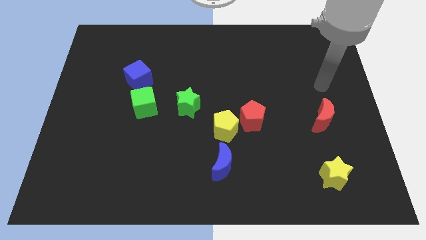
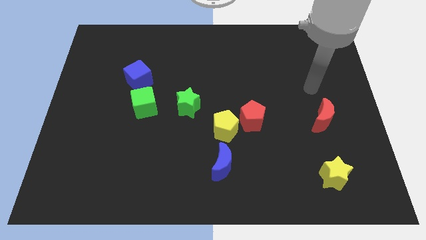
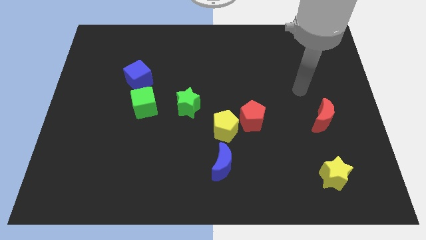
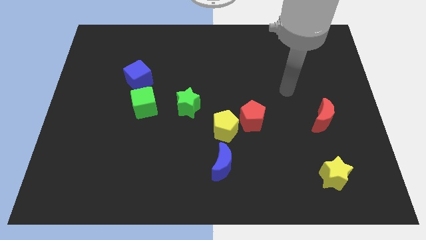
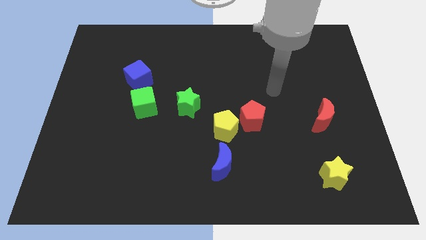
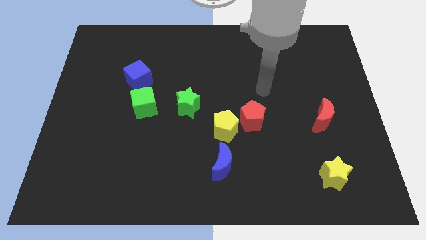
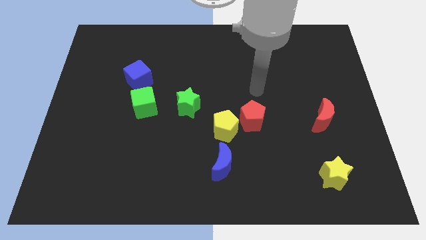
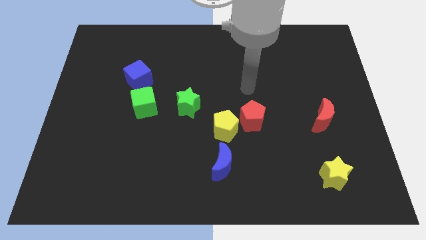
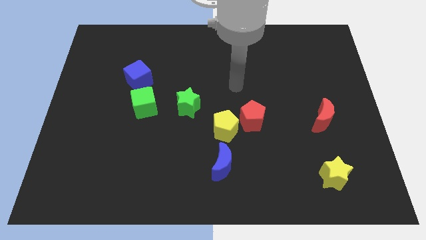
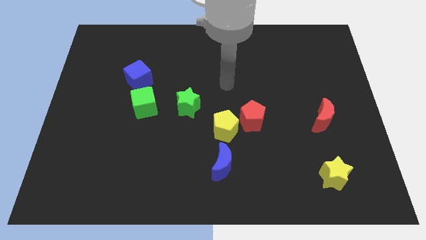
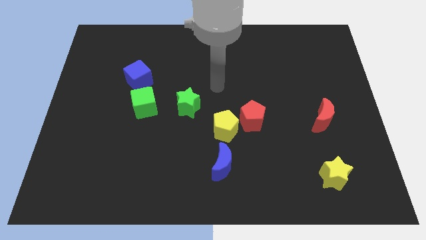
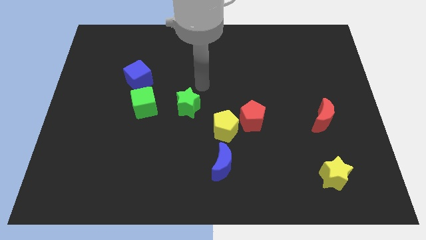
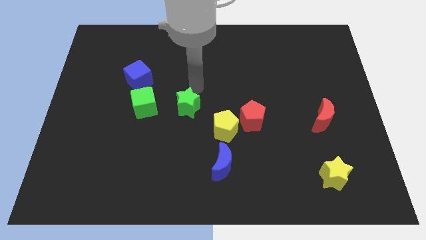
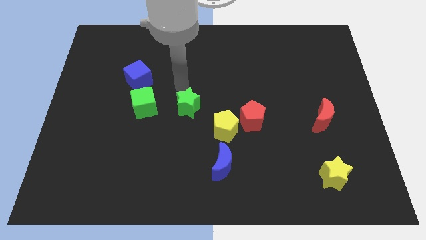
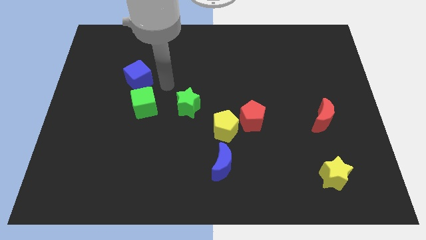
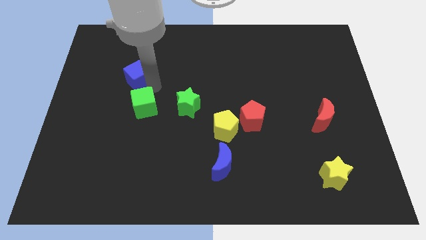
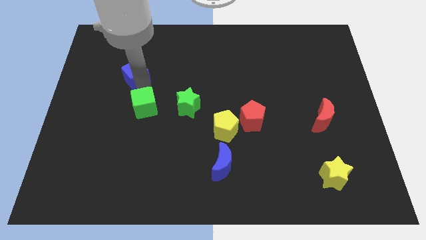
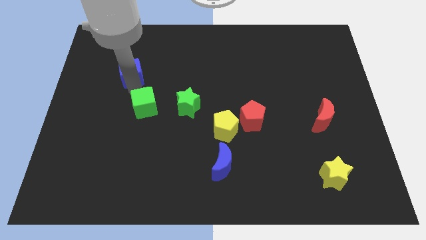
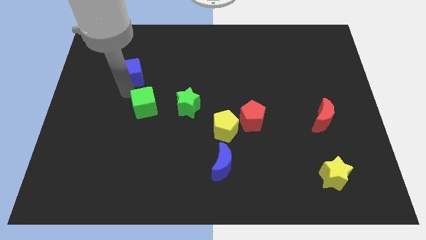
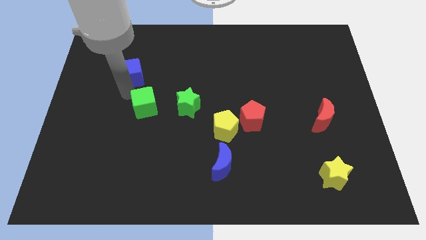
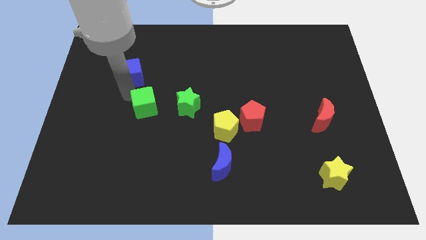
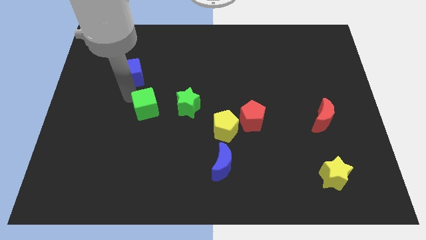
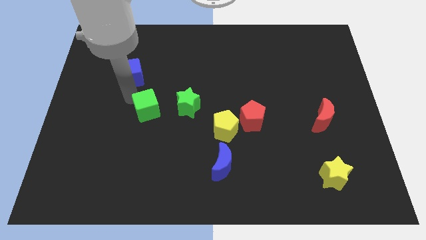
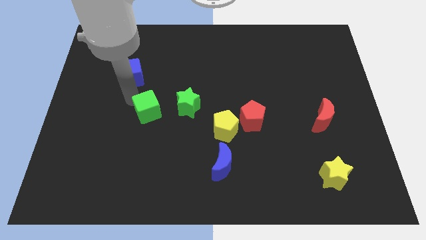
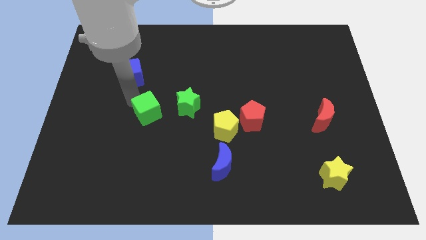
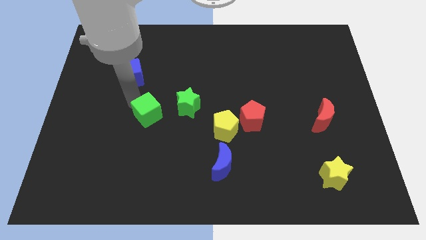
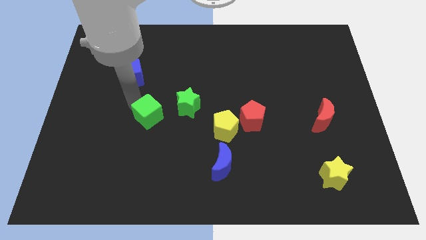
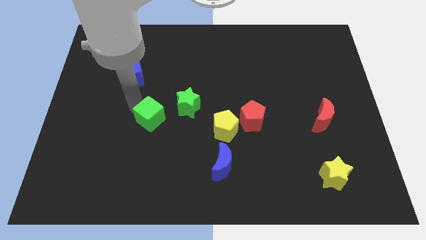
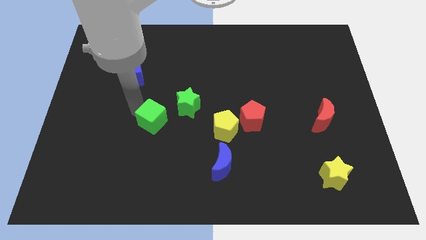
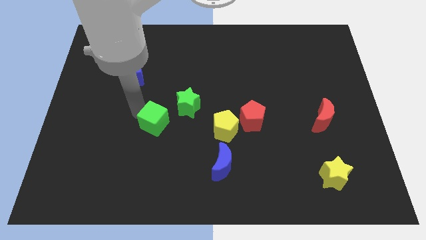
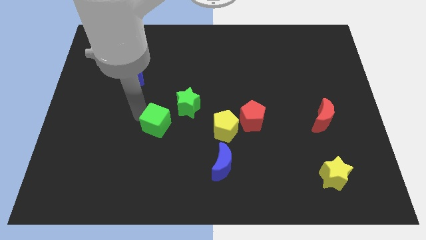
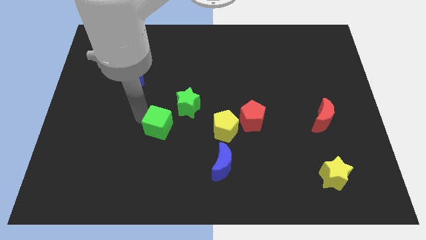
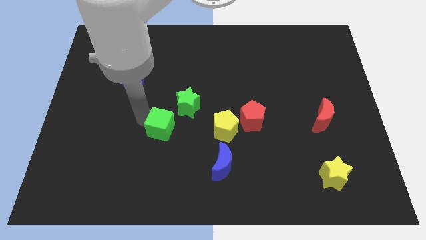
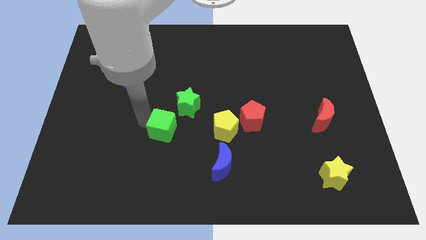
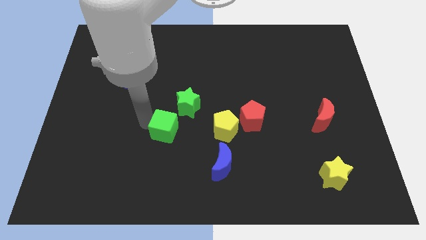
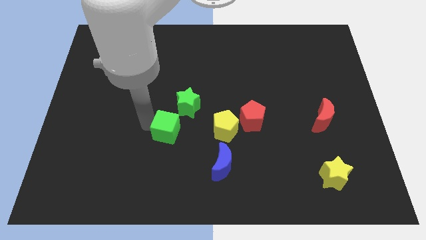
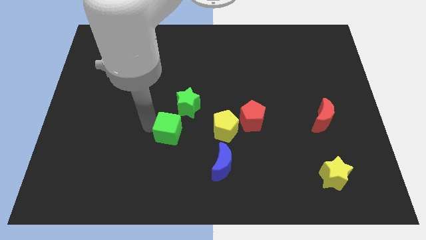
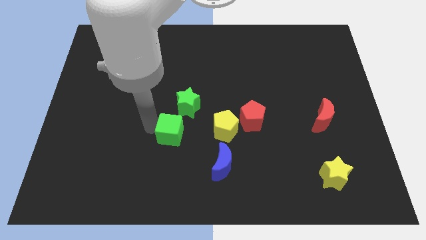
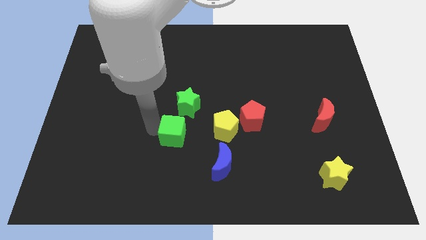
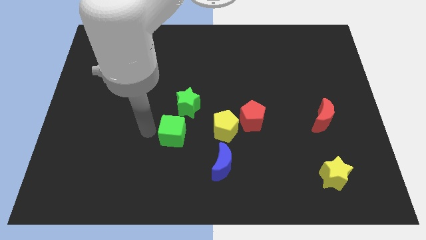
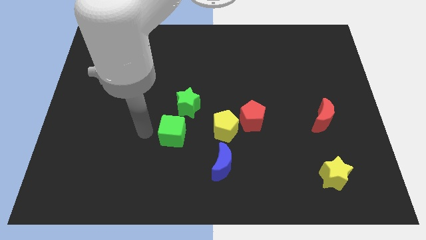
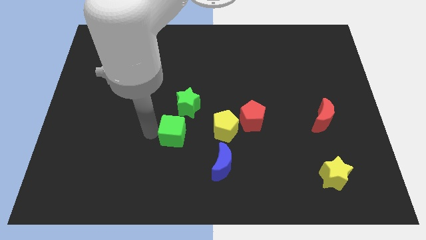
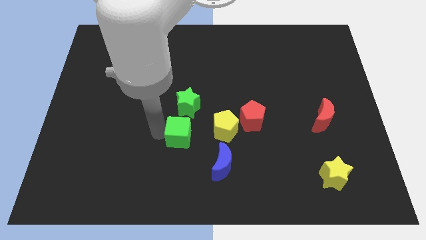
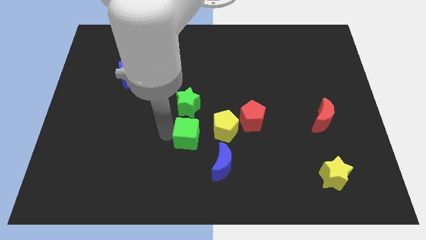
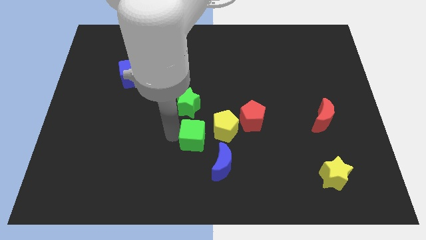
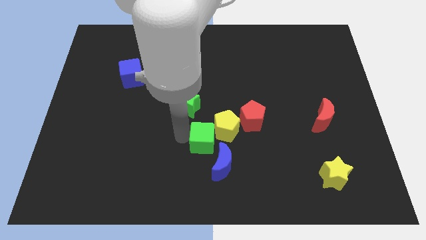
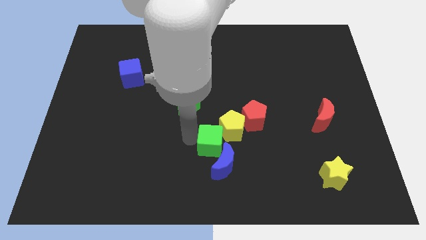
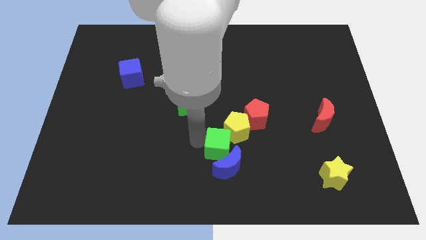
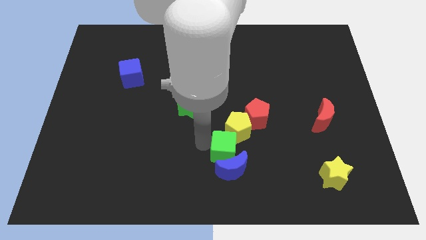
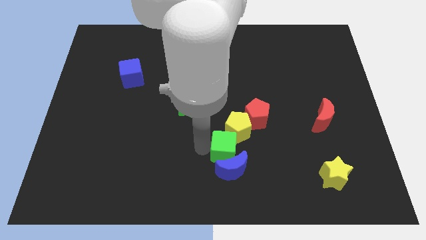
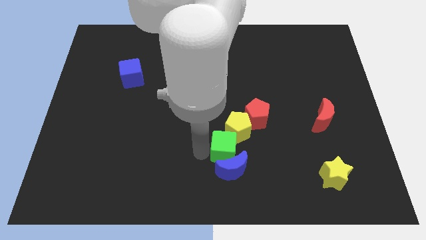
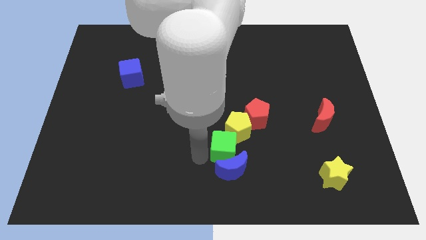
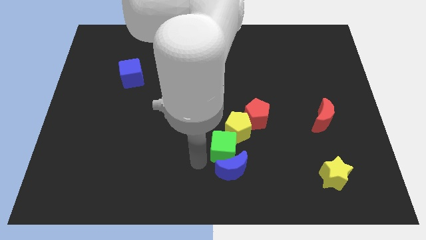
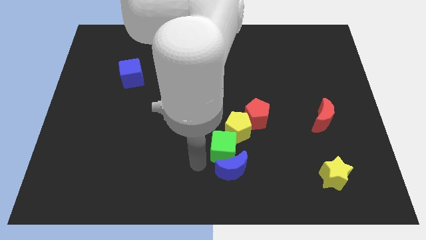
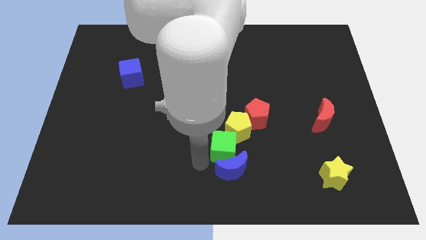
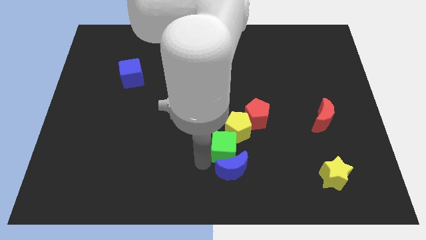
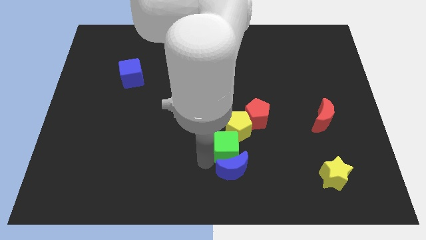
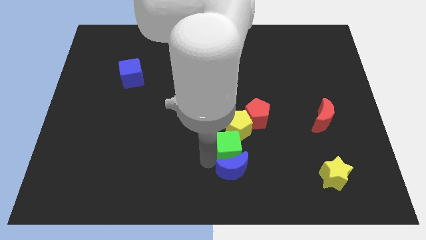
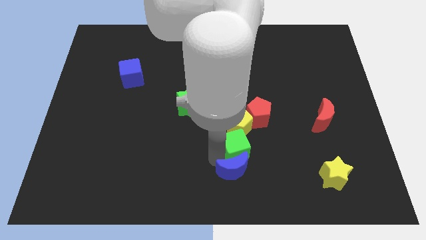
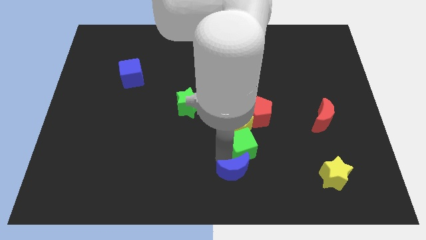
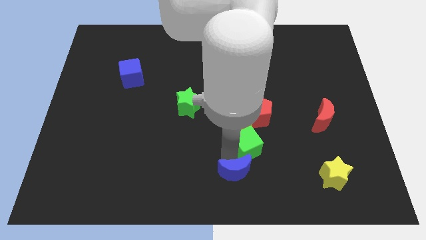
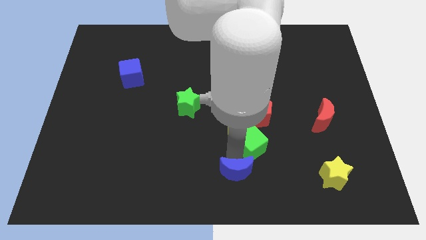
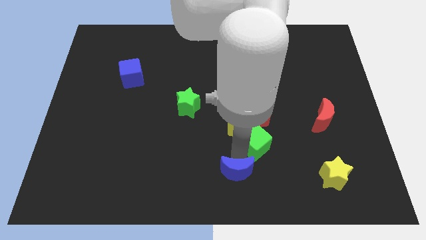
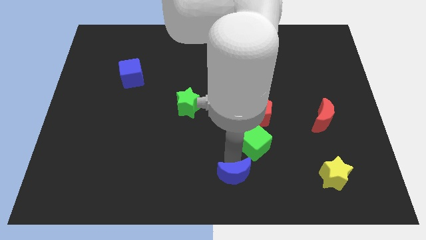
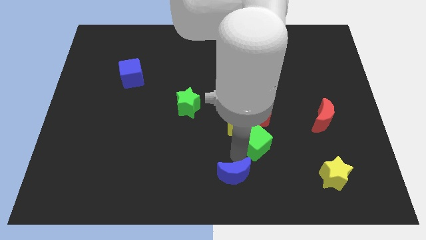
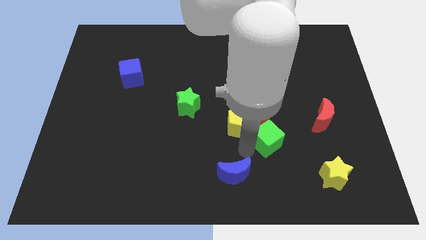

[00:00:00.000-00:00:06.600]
put the green cube to the right side of the yellow pentagon

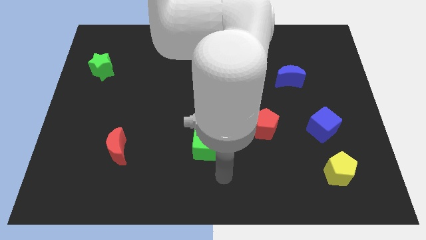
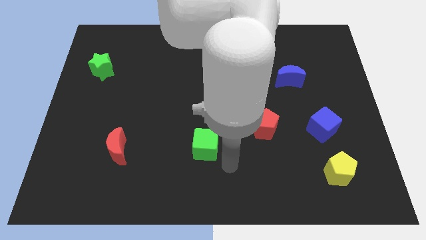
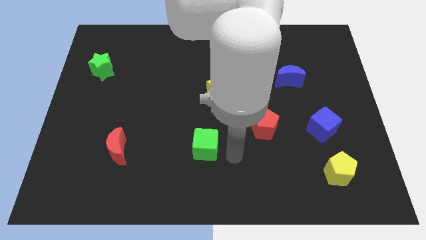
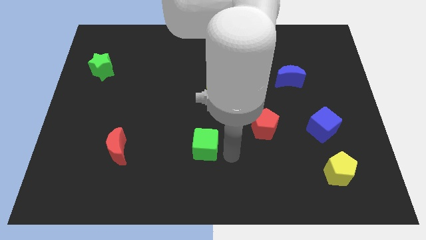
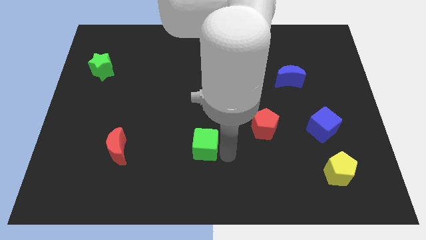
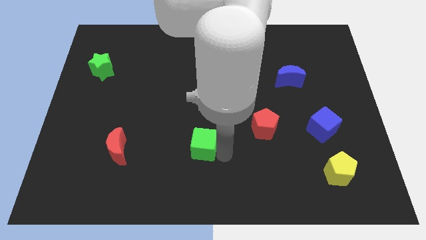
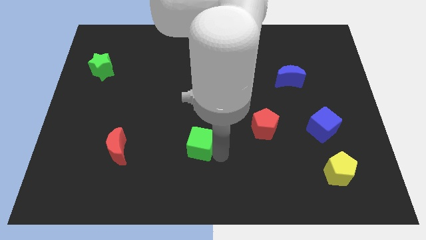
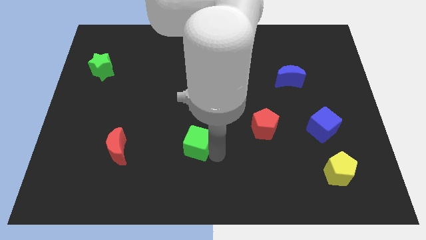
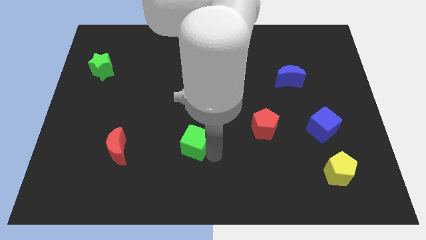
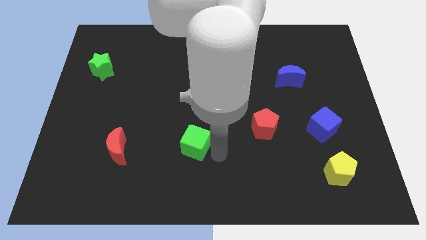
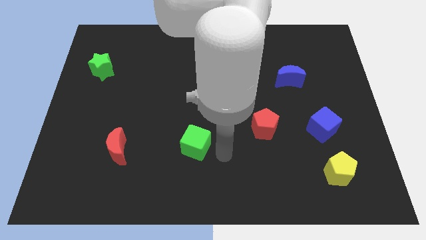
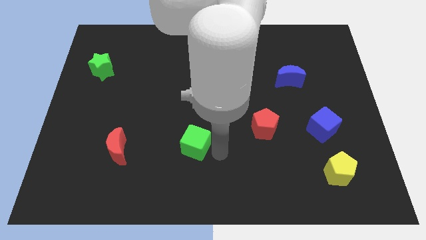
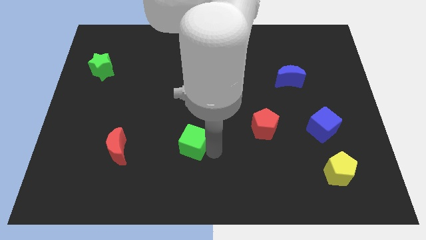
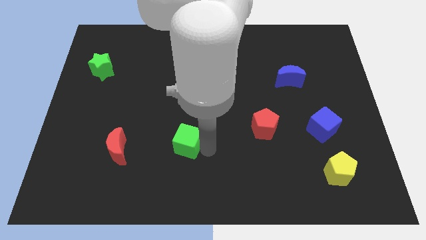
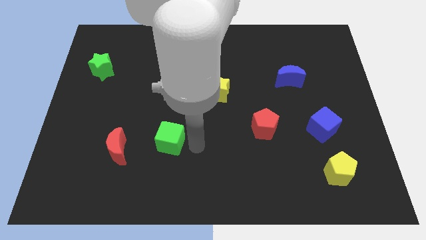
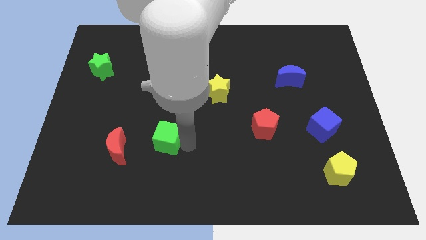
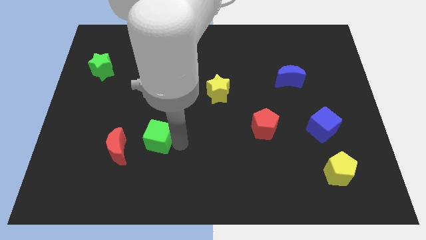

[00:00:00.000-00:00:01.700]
push the green cube to the top right of the red moon
